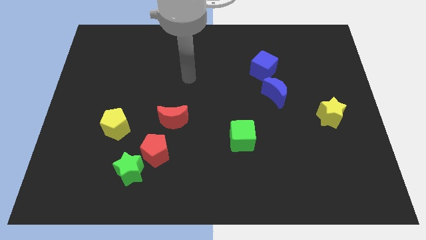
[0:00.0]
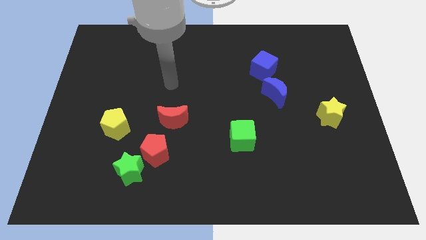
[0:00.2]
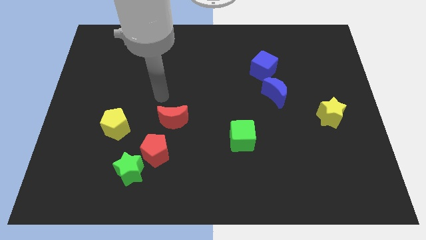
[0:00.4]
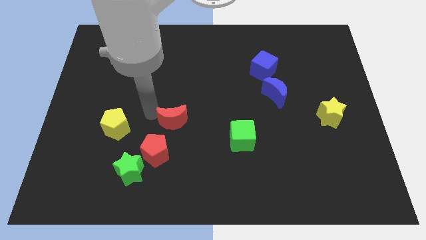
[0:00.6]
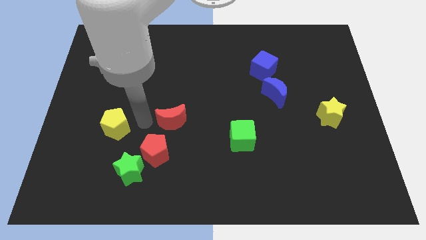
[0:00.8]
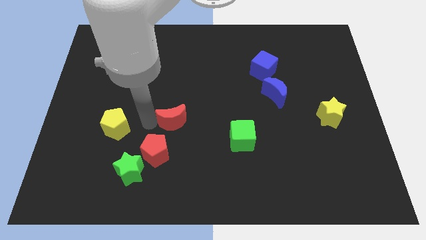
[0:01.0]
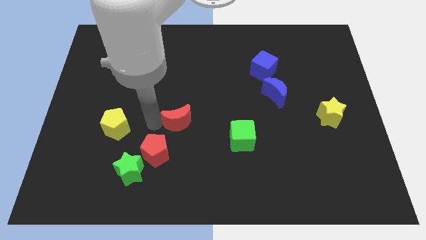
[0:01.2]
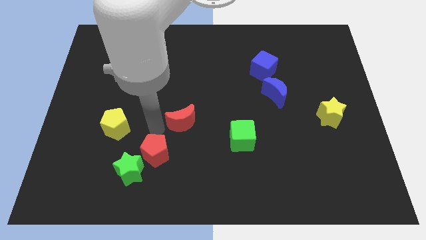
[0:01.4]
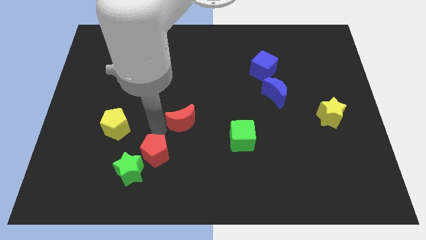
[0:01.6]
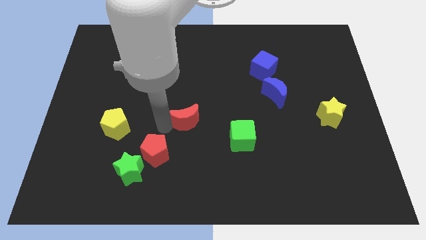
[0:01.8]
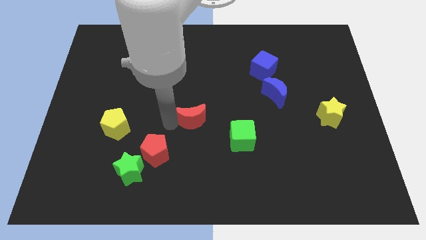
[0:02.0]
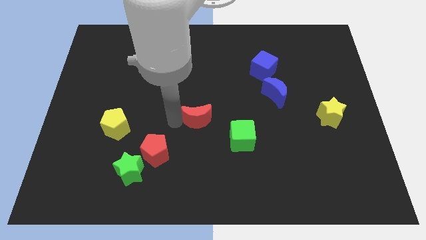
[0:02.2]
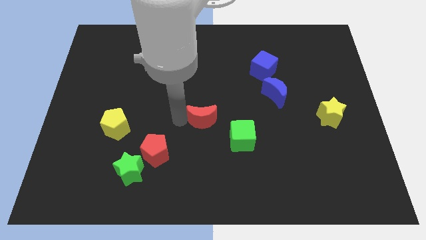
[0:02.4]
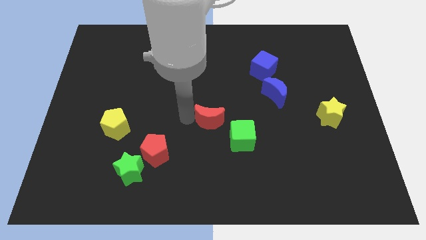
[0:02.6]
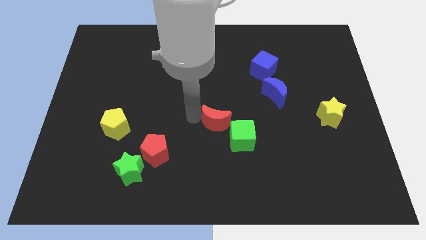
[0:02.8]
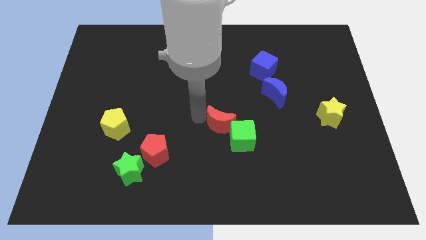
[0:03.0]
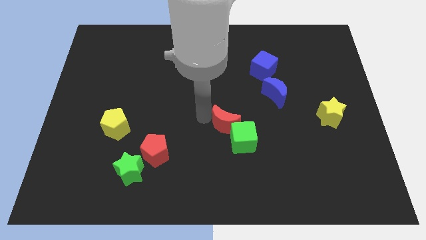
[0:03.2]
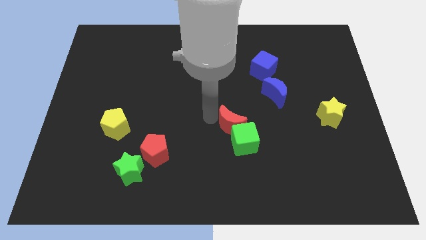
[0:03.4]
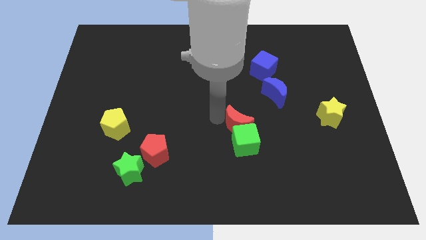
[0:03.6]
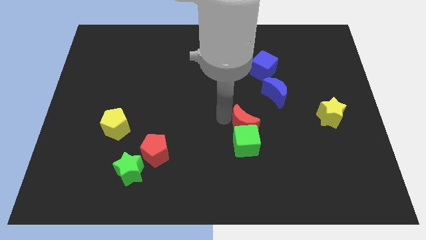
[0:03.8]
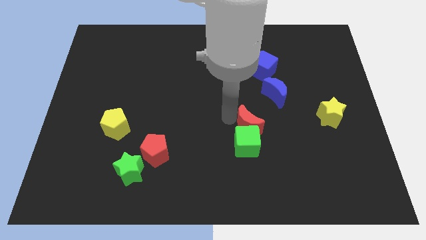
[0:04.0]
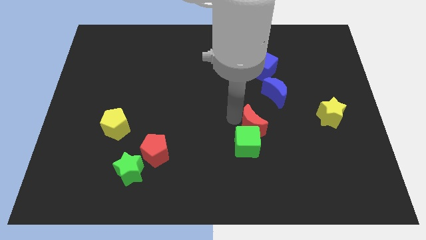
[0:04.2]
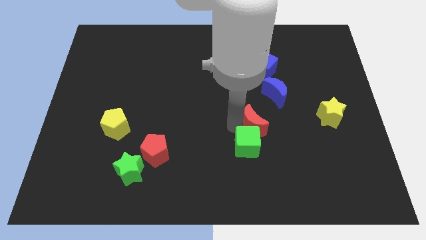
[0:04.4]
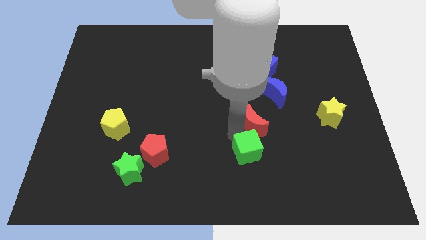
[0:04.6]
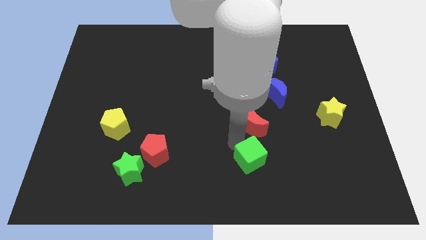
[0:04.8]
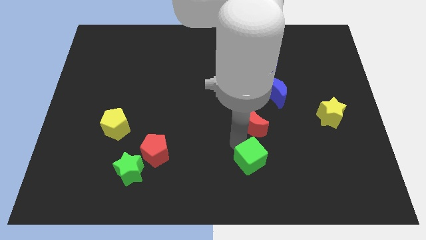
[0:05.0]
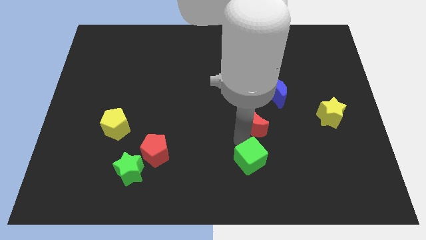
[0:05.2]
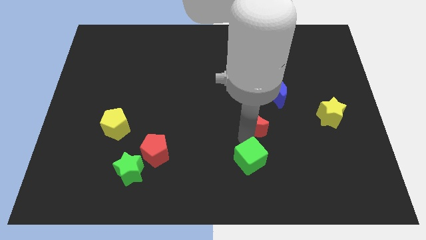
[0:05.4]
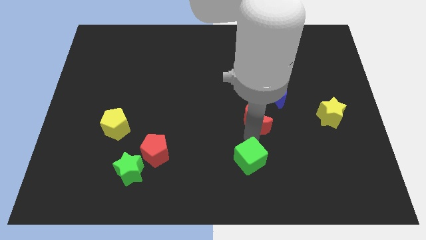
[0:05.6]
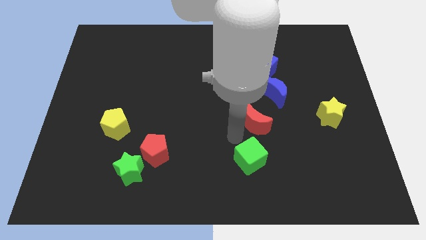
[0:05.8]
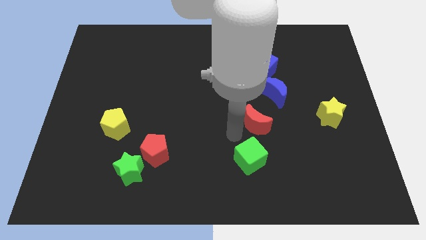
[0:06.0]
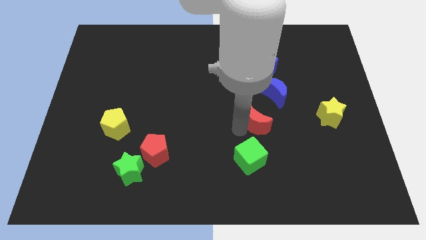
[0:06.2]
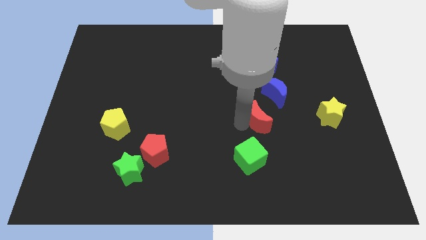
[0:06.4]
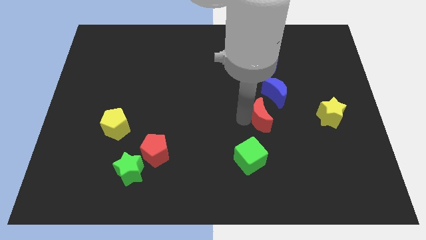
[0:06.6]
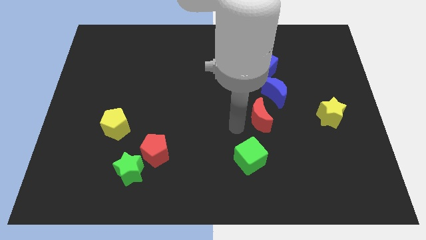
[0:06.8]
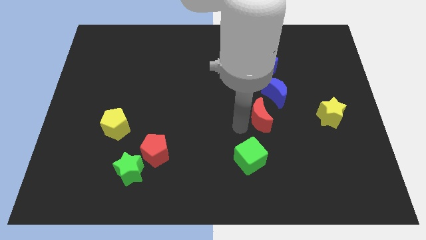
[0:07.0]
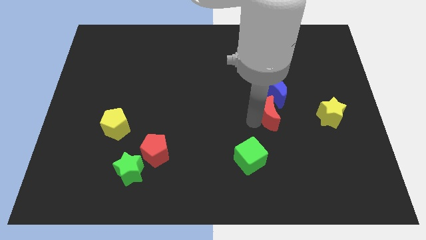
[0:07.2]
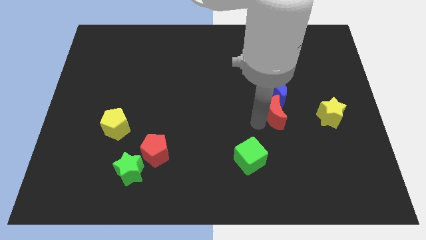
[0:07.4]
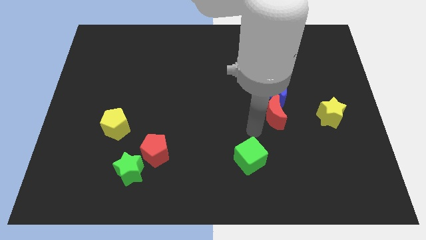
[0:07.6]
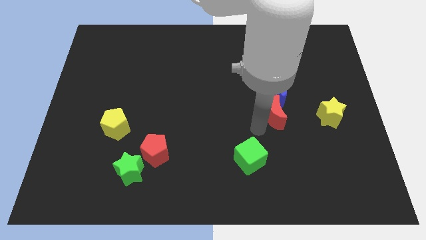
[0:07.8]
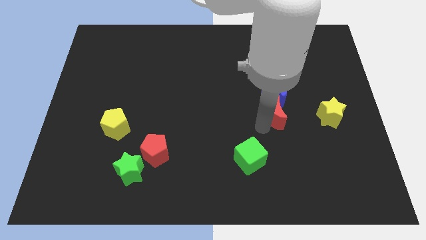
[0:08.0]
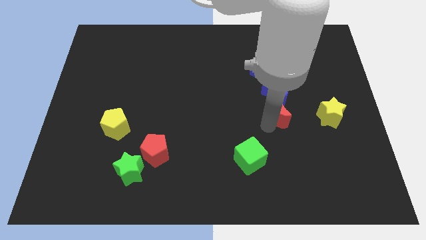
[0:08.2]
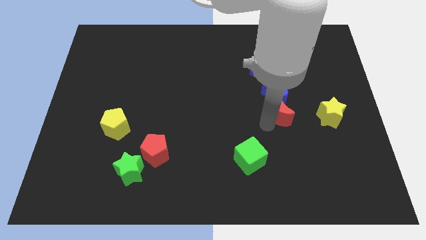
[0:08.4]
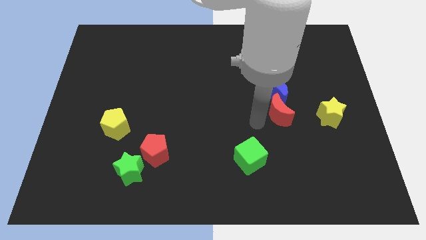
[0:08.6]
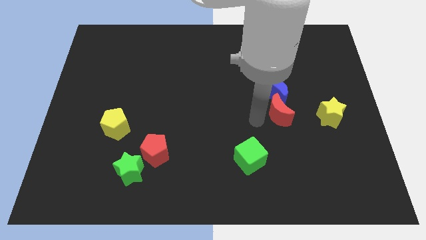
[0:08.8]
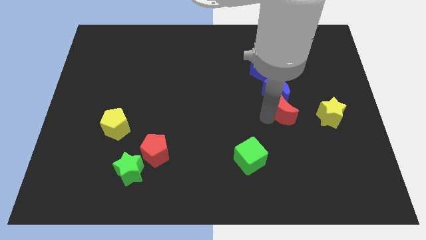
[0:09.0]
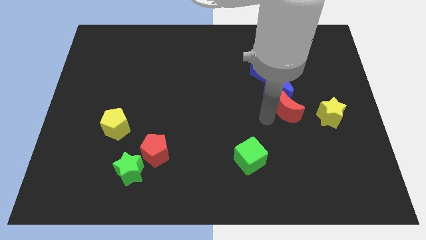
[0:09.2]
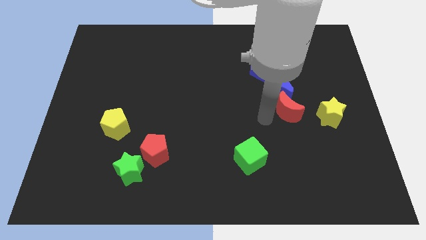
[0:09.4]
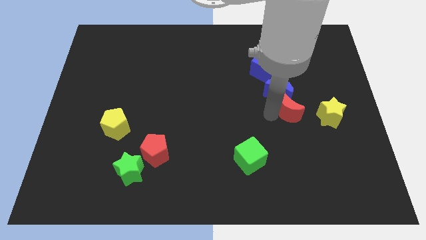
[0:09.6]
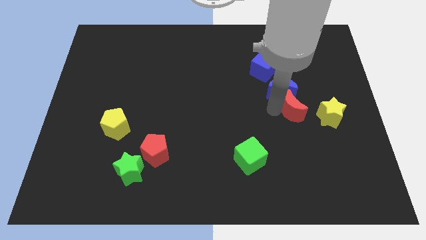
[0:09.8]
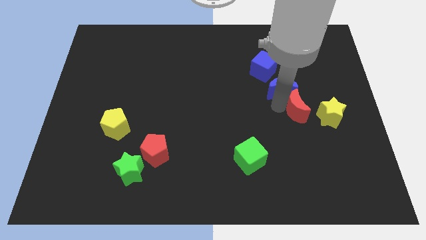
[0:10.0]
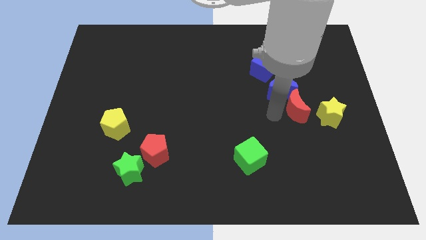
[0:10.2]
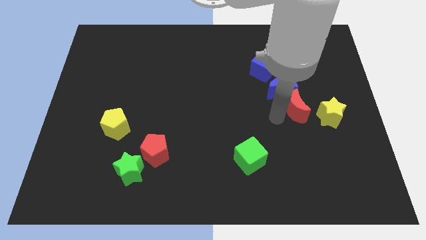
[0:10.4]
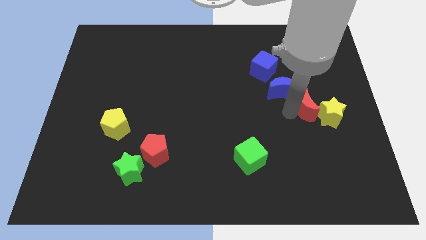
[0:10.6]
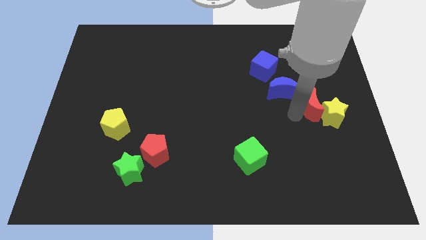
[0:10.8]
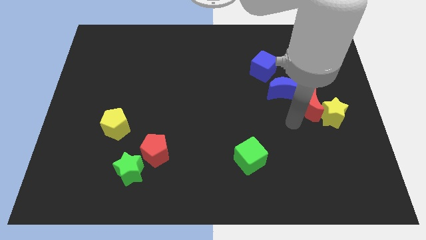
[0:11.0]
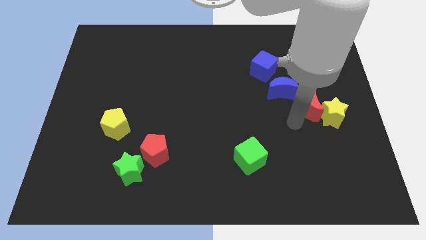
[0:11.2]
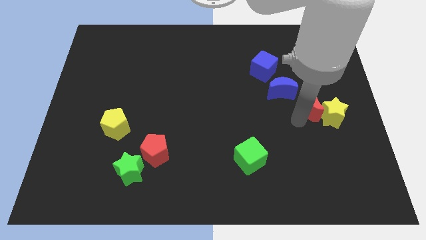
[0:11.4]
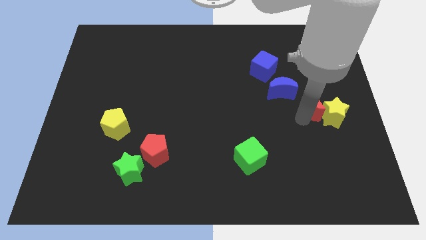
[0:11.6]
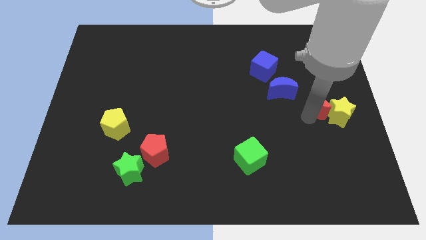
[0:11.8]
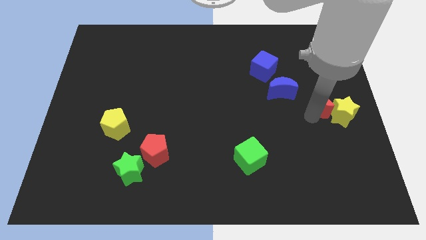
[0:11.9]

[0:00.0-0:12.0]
put the red moon to the right side of the board
